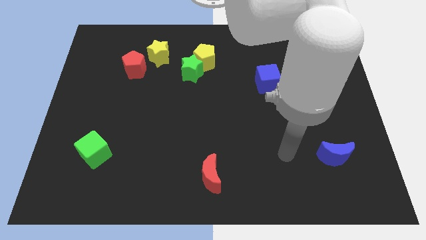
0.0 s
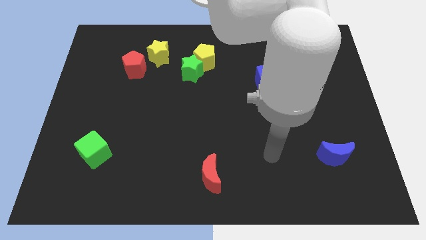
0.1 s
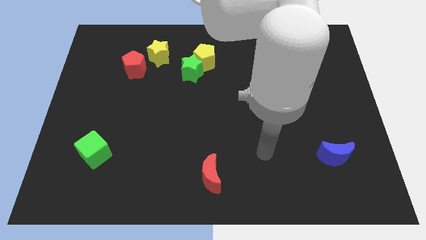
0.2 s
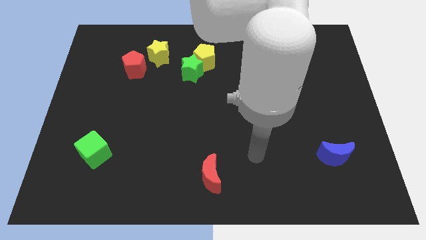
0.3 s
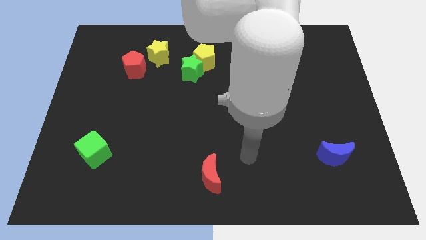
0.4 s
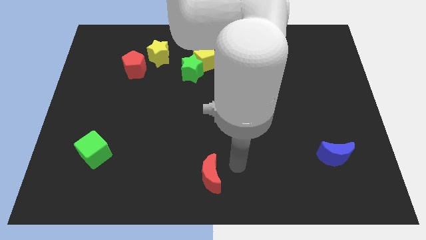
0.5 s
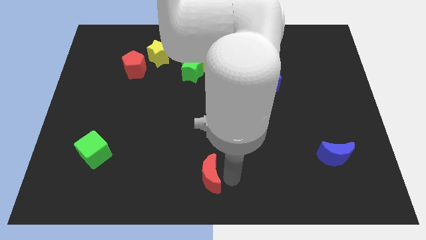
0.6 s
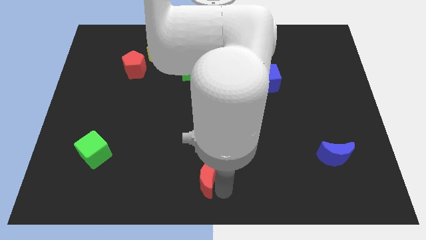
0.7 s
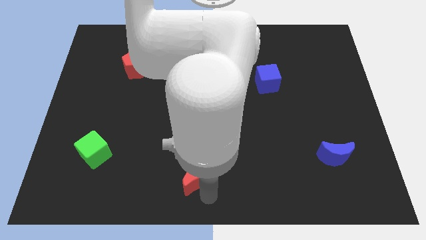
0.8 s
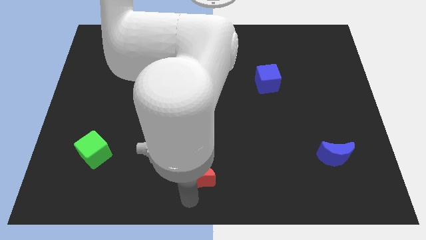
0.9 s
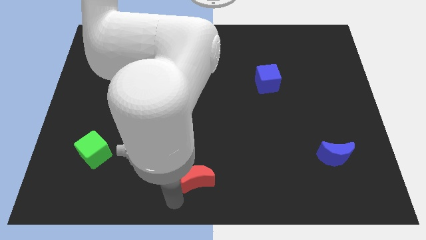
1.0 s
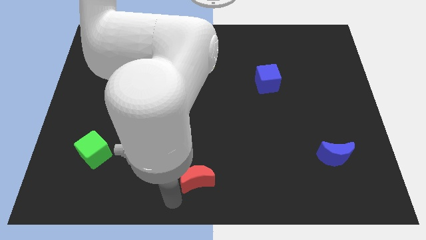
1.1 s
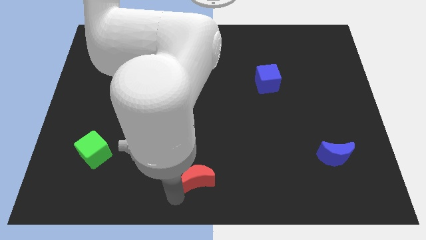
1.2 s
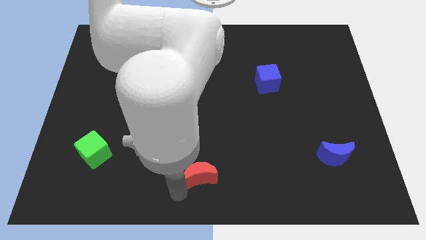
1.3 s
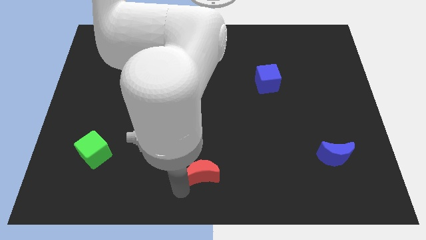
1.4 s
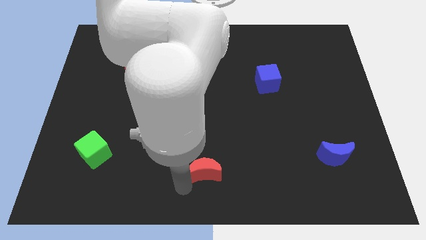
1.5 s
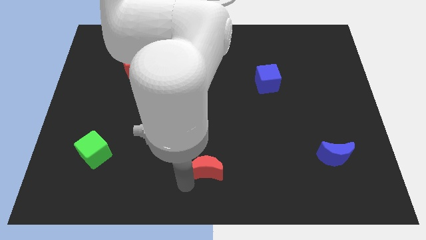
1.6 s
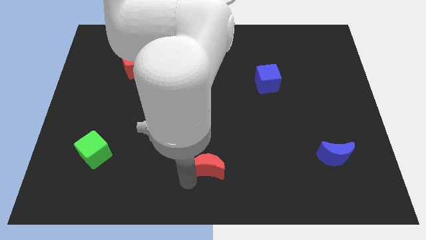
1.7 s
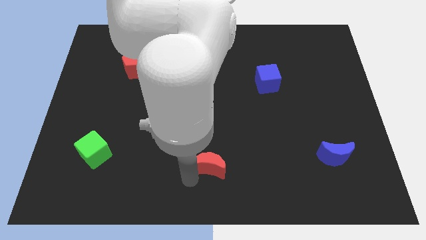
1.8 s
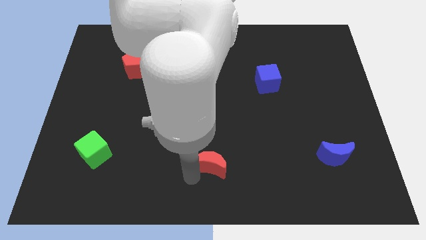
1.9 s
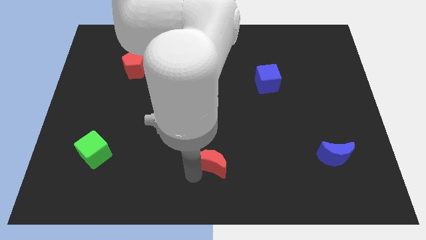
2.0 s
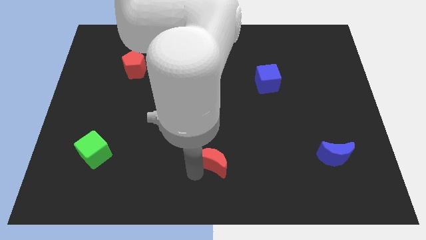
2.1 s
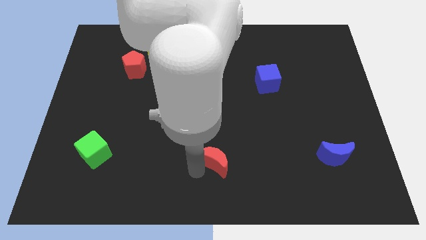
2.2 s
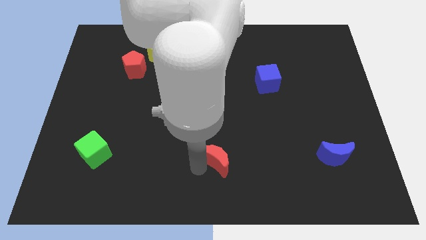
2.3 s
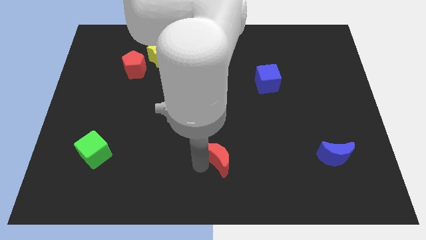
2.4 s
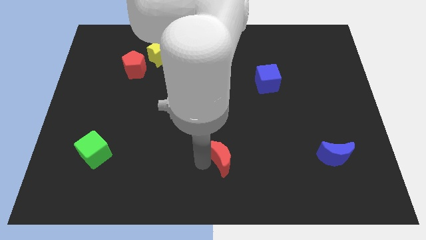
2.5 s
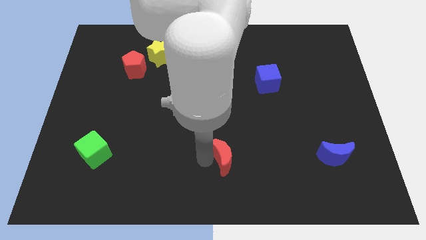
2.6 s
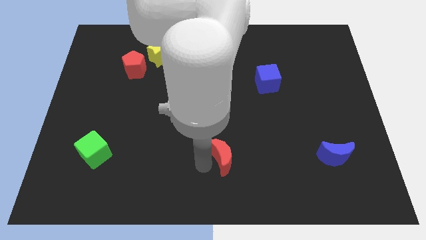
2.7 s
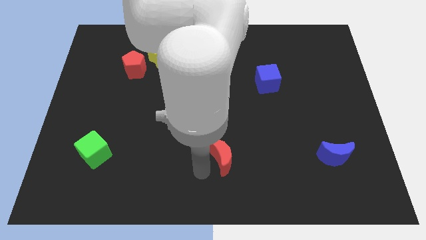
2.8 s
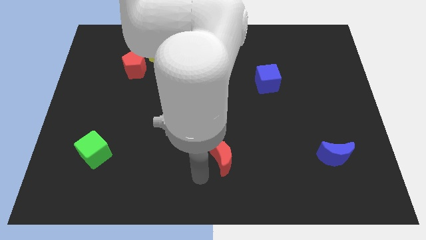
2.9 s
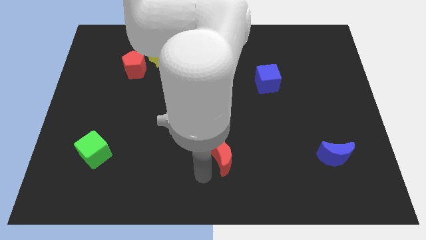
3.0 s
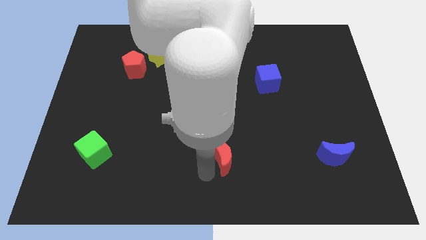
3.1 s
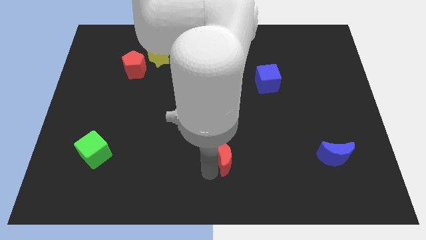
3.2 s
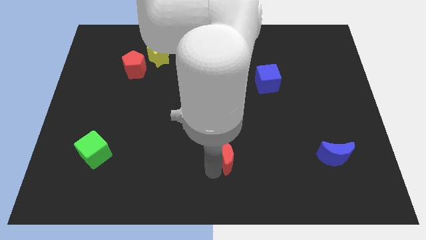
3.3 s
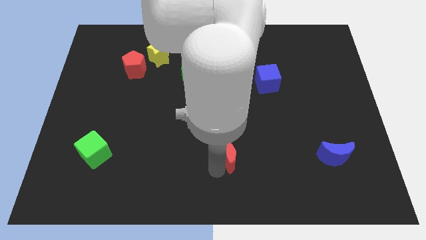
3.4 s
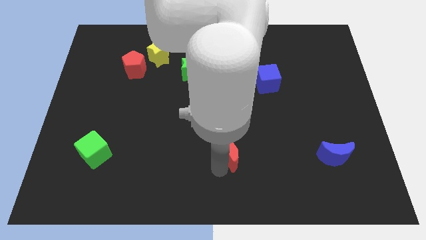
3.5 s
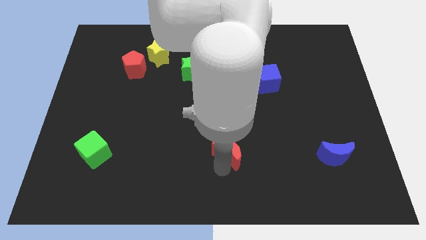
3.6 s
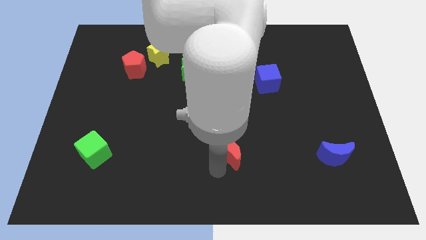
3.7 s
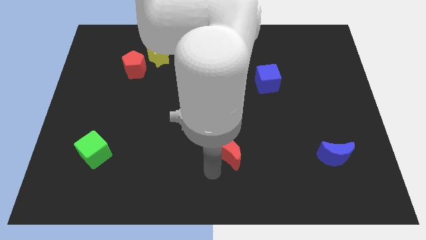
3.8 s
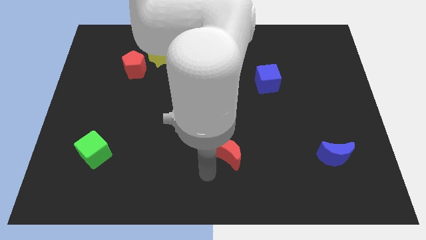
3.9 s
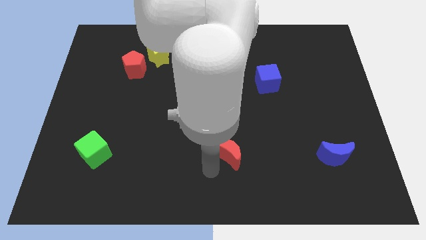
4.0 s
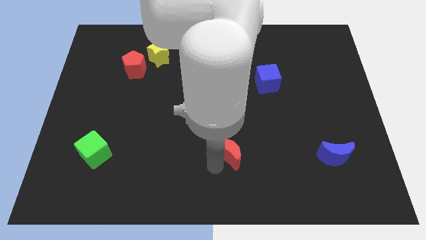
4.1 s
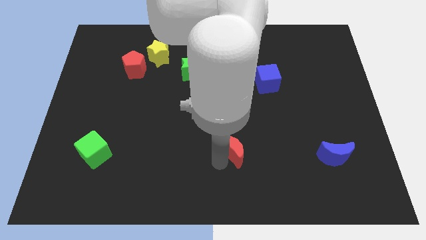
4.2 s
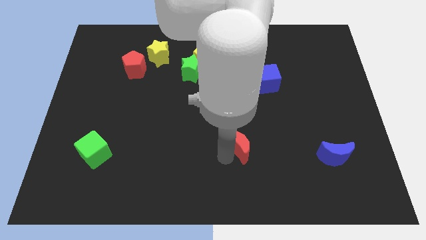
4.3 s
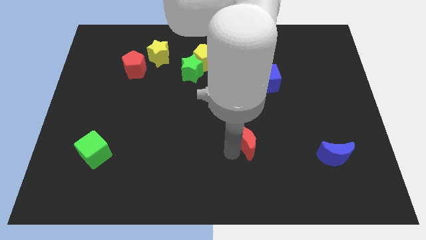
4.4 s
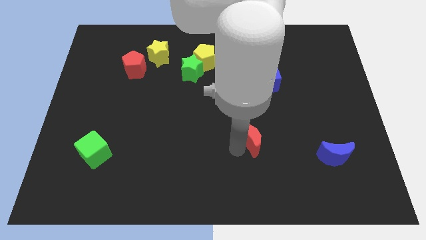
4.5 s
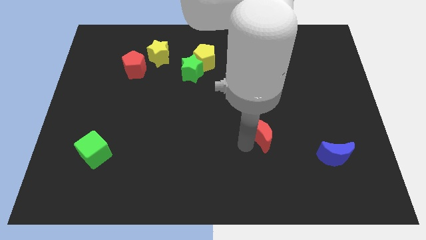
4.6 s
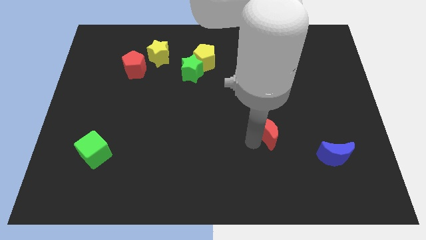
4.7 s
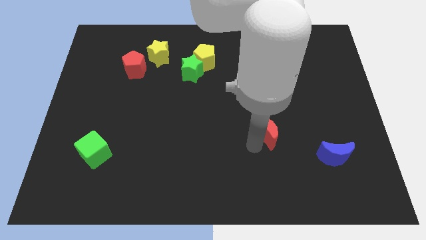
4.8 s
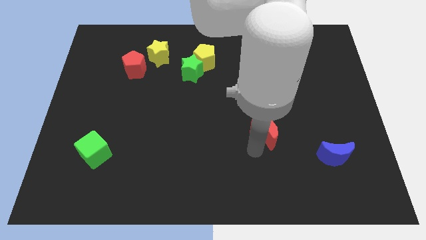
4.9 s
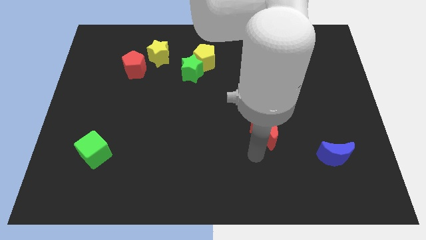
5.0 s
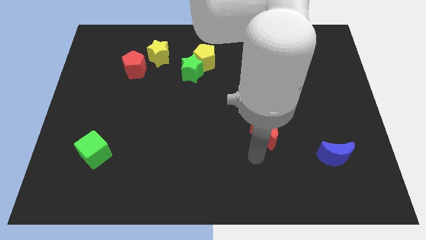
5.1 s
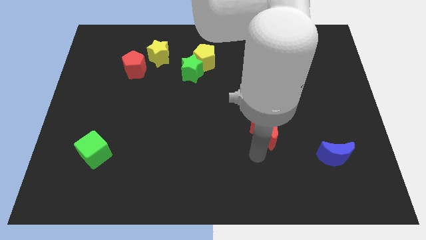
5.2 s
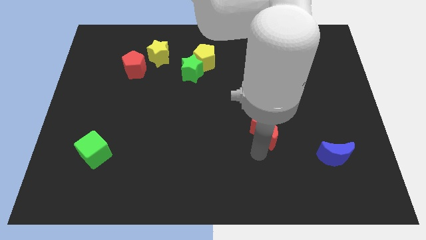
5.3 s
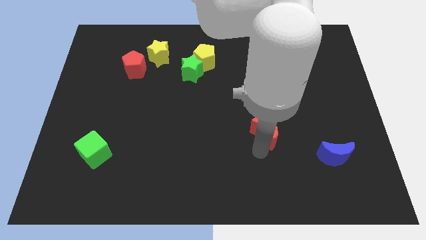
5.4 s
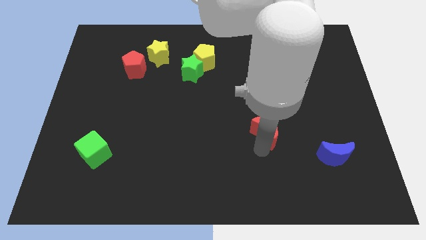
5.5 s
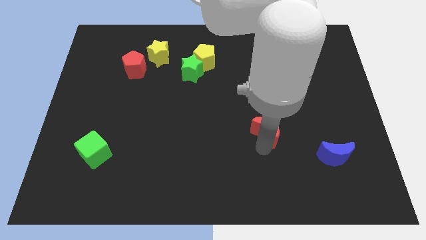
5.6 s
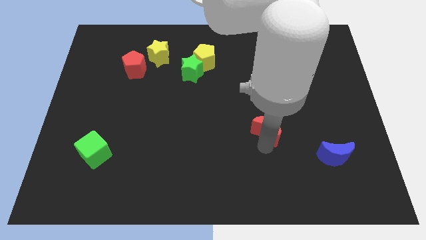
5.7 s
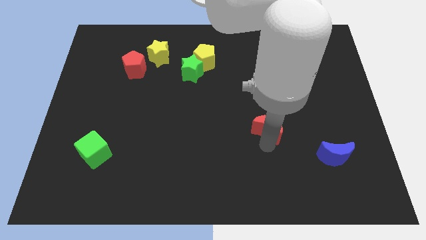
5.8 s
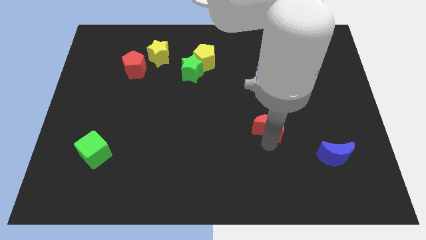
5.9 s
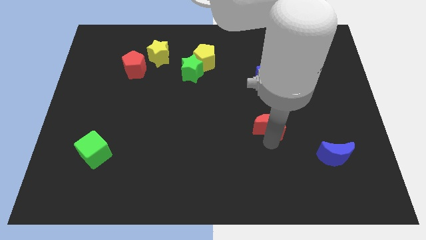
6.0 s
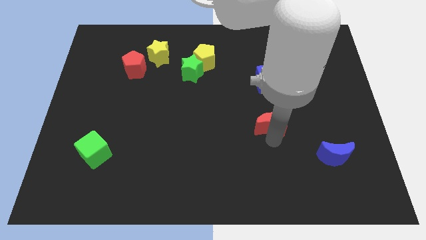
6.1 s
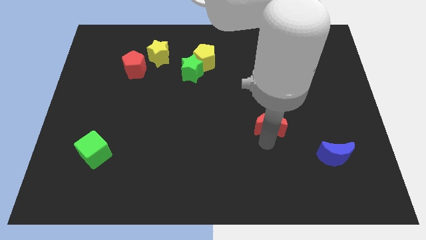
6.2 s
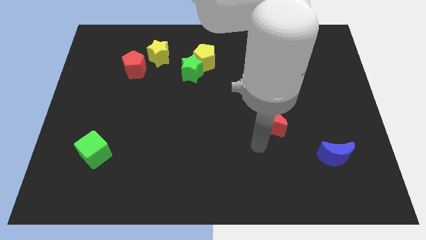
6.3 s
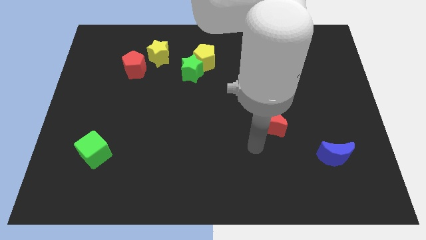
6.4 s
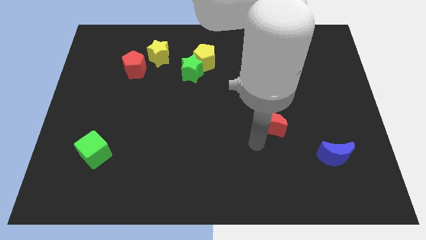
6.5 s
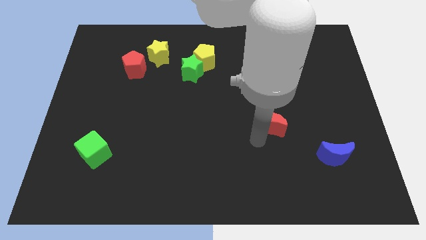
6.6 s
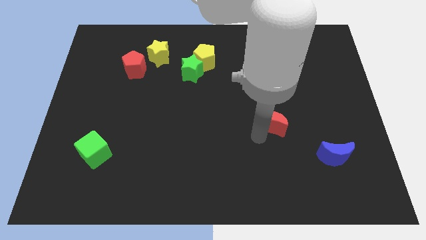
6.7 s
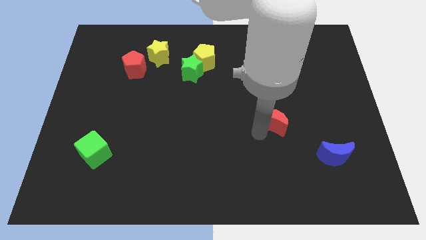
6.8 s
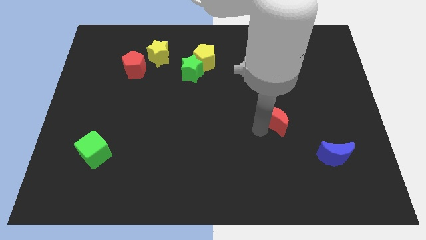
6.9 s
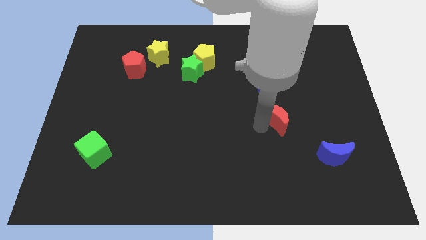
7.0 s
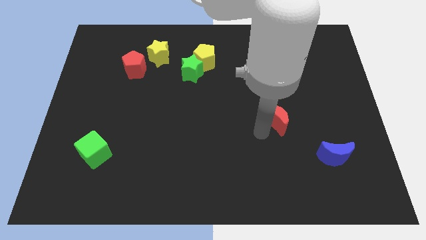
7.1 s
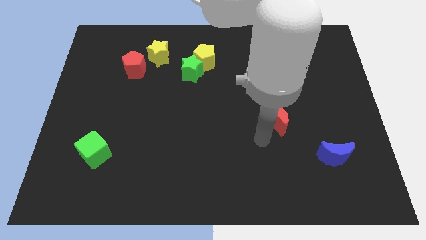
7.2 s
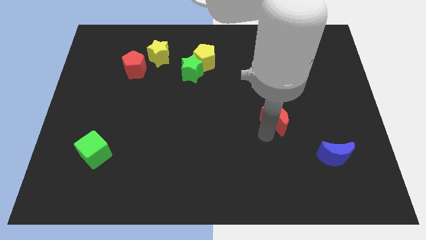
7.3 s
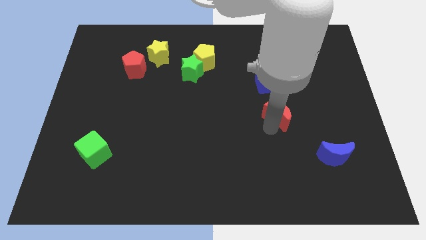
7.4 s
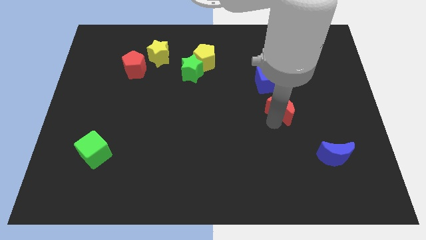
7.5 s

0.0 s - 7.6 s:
slide the red moon diagonally down and to the right of the blue cube
